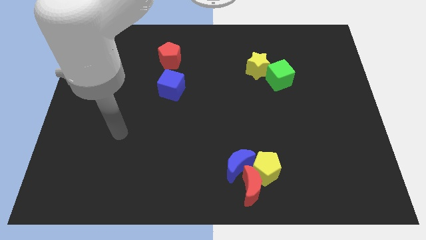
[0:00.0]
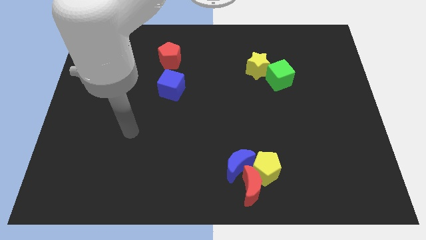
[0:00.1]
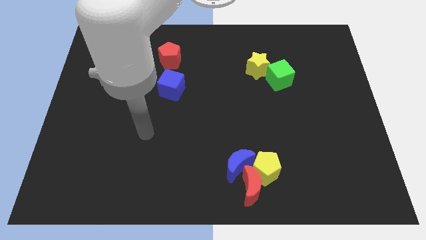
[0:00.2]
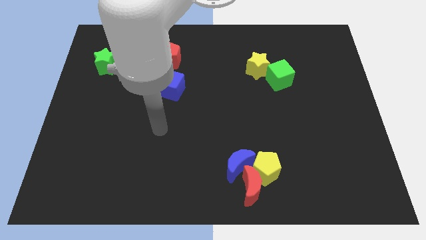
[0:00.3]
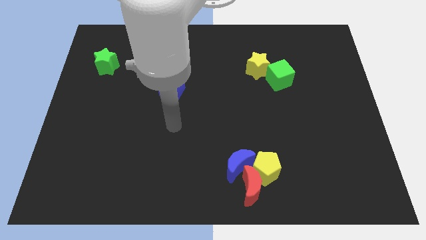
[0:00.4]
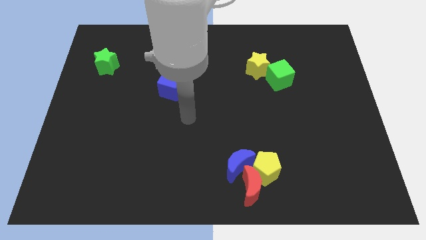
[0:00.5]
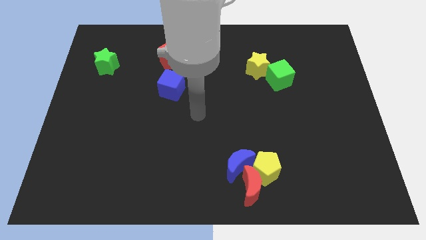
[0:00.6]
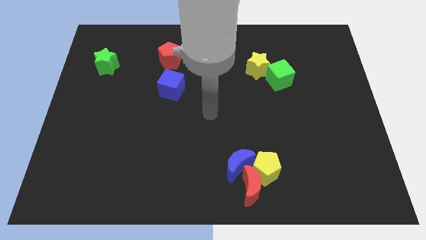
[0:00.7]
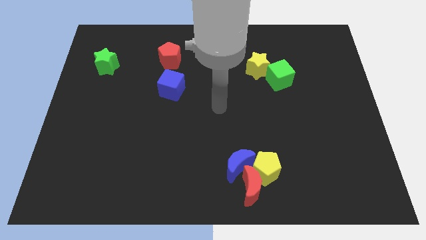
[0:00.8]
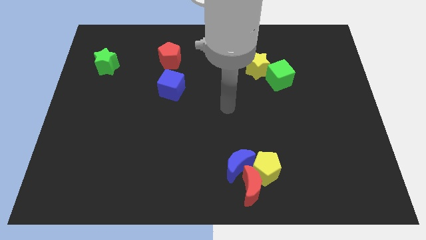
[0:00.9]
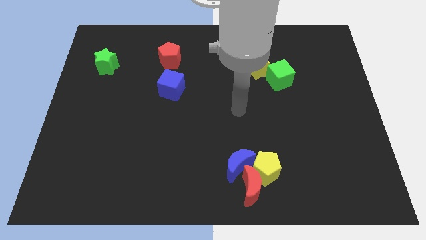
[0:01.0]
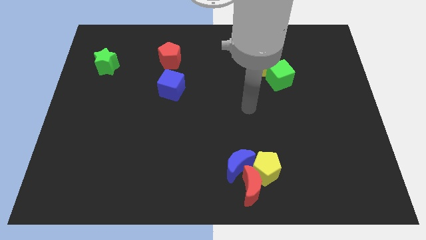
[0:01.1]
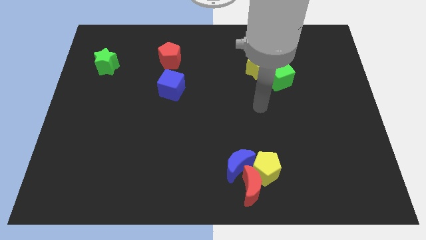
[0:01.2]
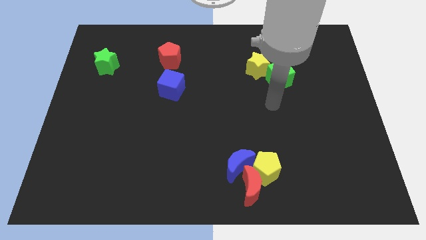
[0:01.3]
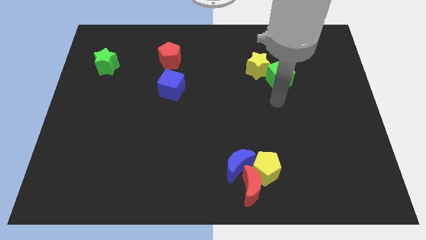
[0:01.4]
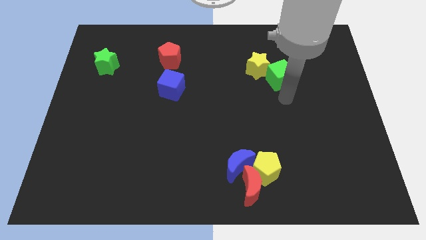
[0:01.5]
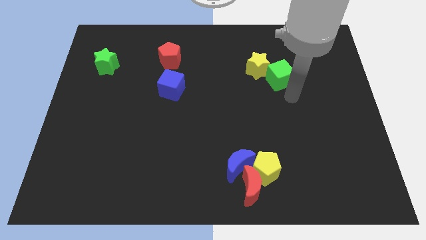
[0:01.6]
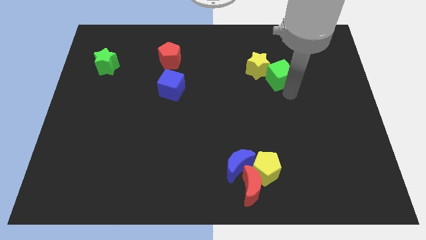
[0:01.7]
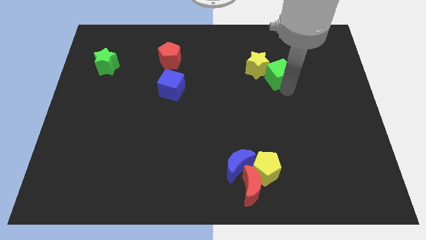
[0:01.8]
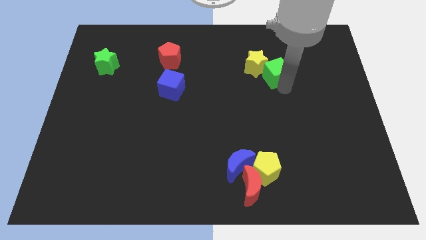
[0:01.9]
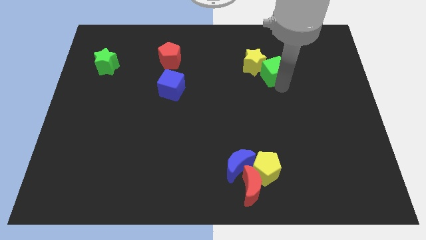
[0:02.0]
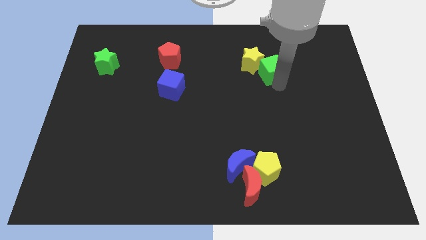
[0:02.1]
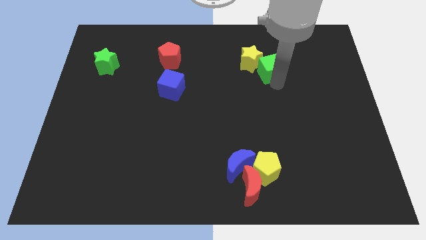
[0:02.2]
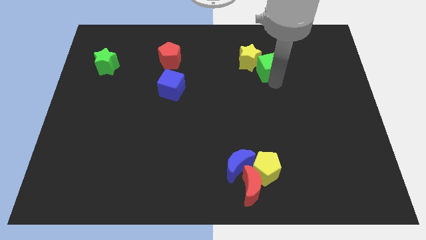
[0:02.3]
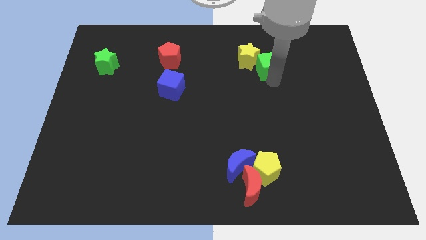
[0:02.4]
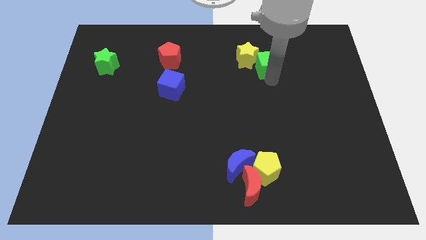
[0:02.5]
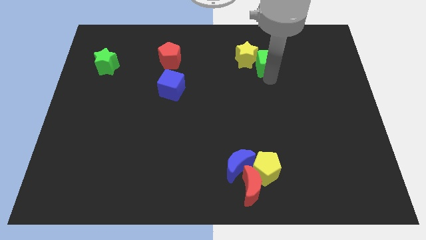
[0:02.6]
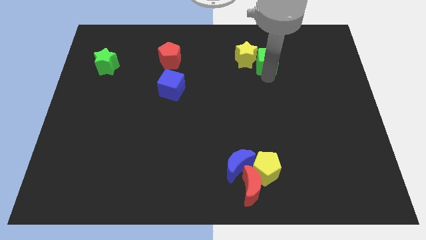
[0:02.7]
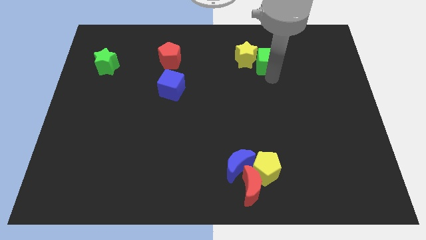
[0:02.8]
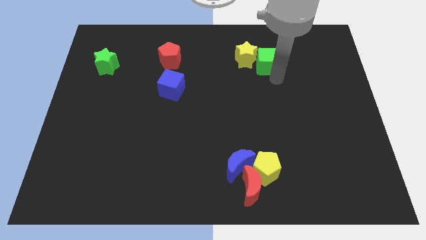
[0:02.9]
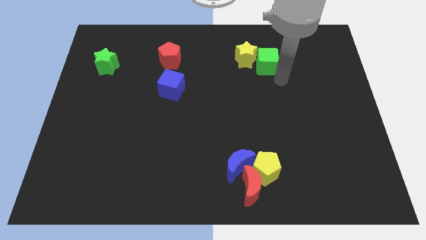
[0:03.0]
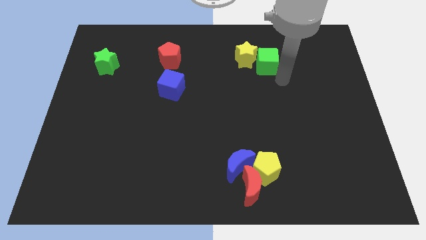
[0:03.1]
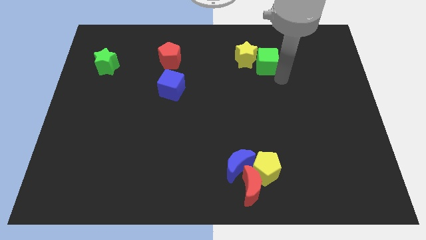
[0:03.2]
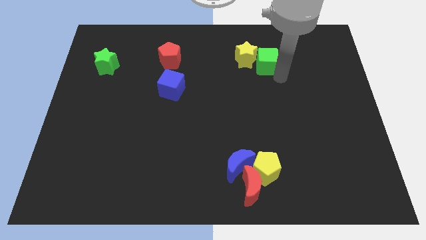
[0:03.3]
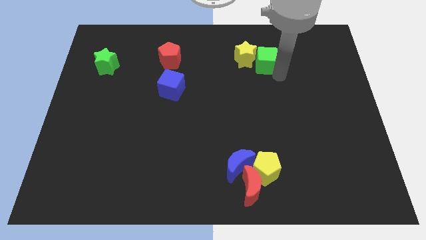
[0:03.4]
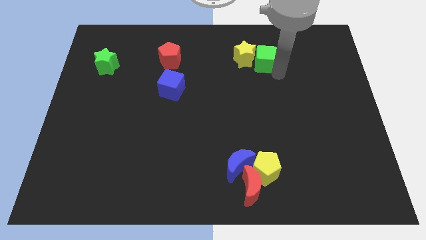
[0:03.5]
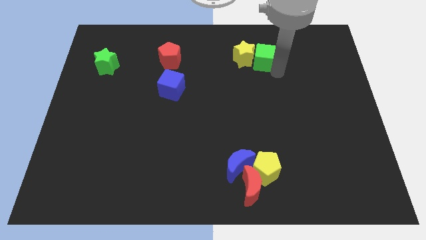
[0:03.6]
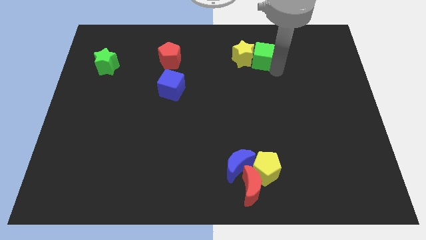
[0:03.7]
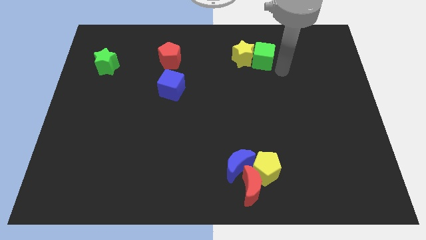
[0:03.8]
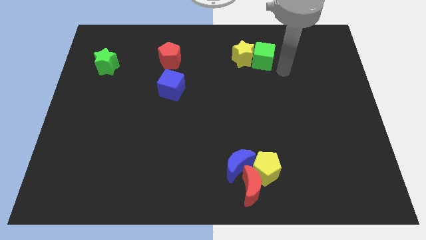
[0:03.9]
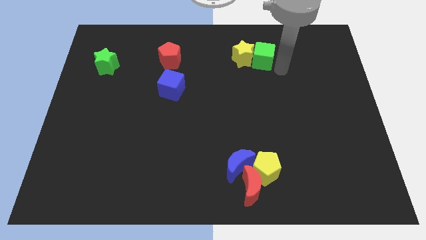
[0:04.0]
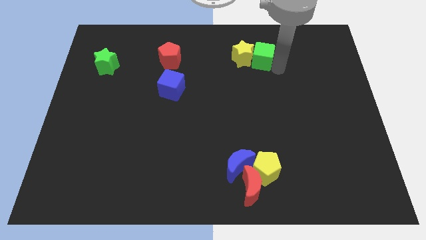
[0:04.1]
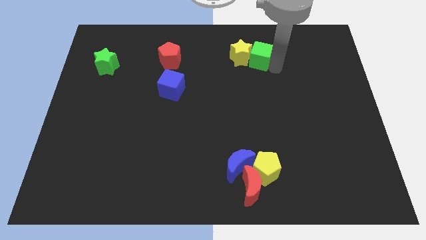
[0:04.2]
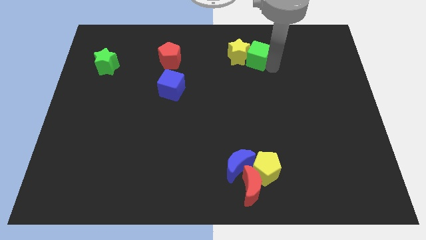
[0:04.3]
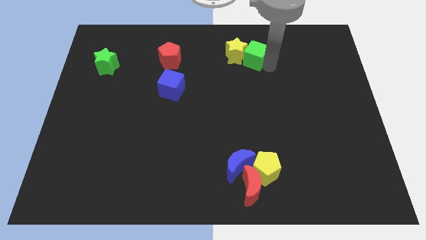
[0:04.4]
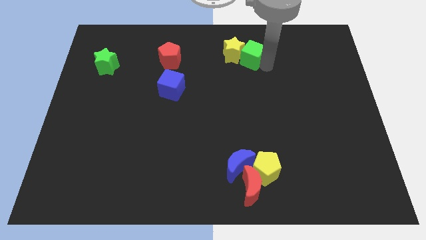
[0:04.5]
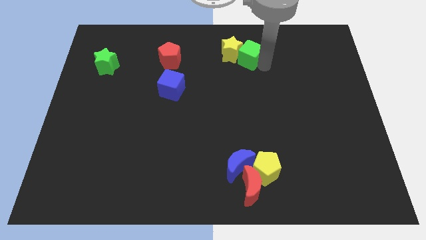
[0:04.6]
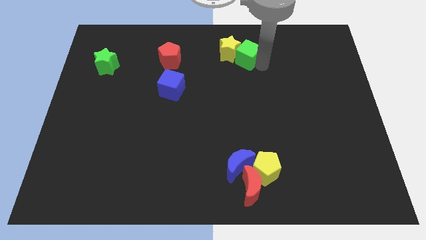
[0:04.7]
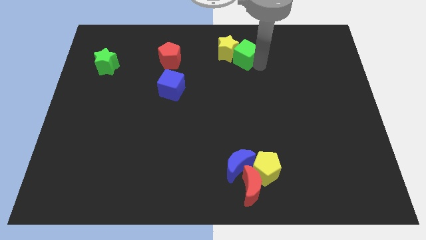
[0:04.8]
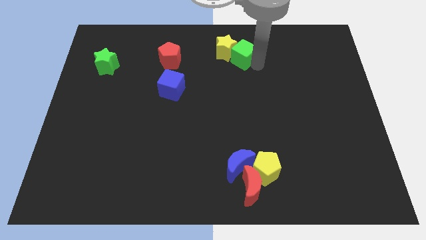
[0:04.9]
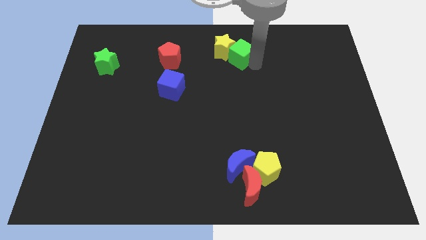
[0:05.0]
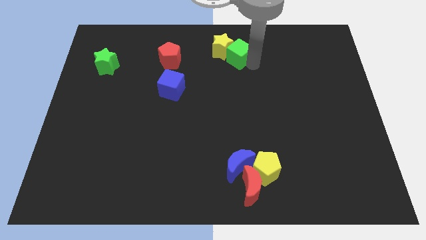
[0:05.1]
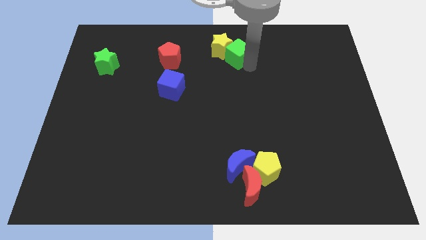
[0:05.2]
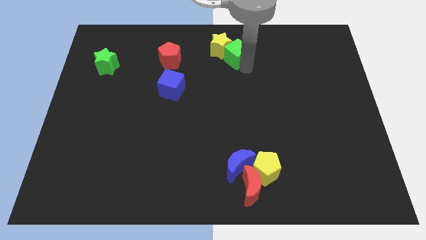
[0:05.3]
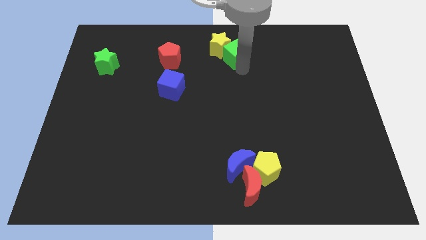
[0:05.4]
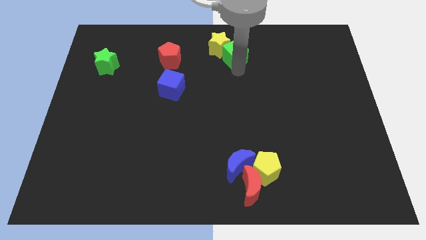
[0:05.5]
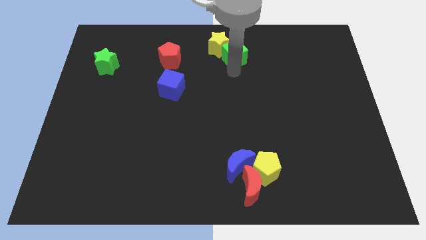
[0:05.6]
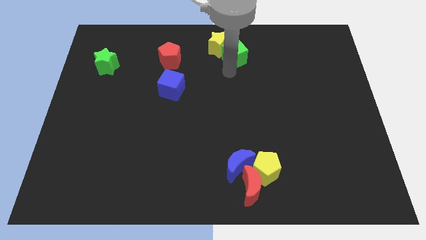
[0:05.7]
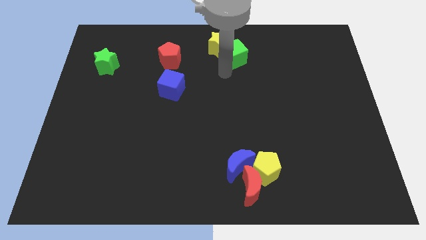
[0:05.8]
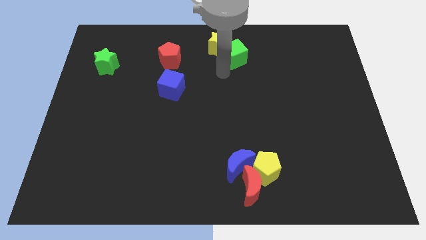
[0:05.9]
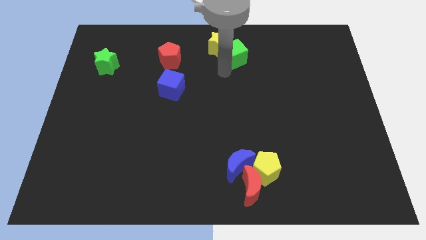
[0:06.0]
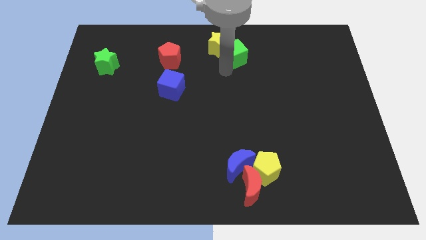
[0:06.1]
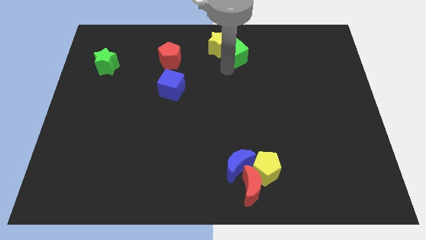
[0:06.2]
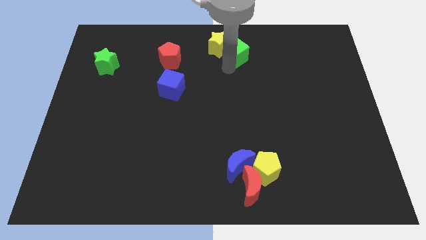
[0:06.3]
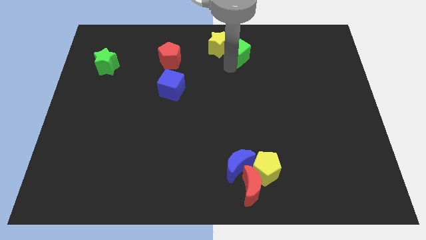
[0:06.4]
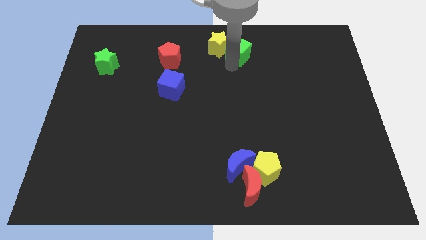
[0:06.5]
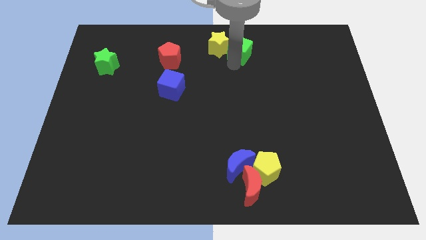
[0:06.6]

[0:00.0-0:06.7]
put the green cube to the top side
